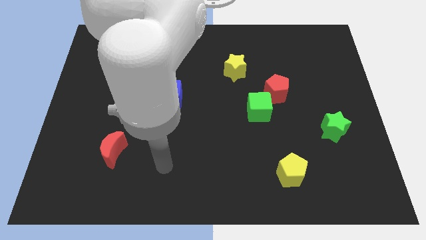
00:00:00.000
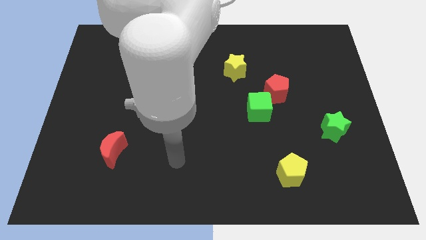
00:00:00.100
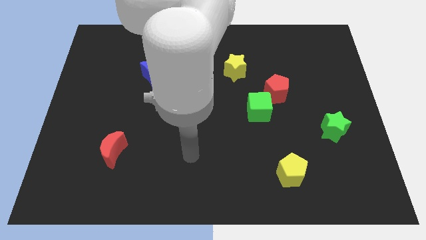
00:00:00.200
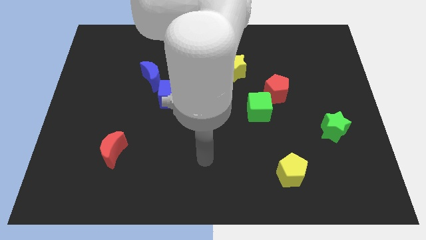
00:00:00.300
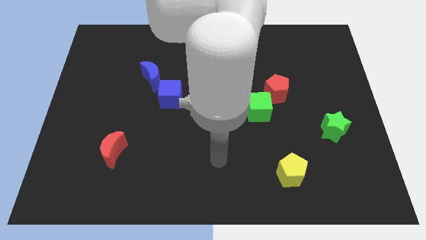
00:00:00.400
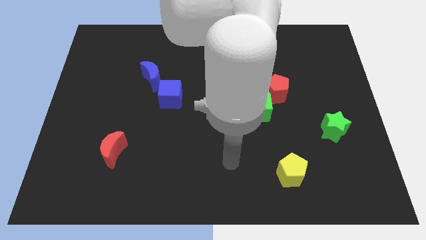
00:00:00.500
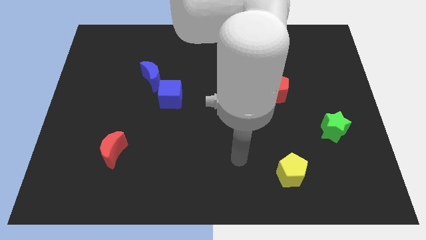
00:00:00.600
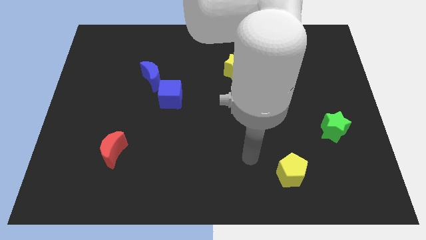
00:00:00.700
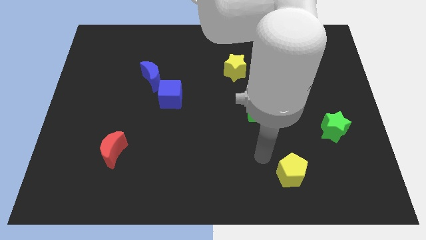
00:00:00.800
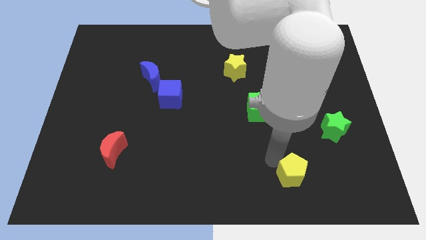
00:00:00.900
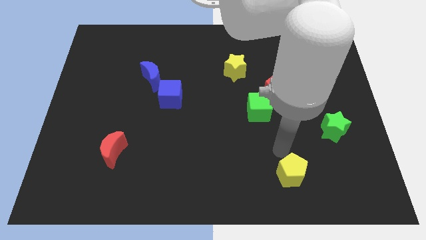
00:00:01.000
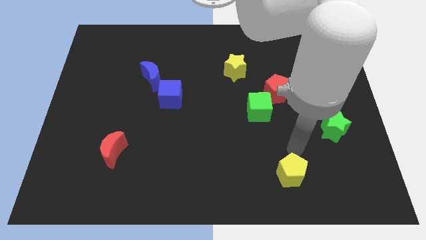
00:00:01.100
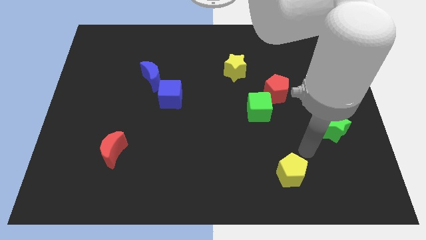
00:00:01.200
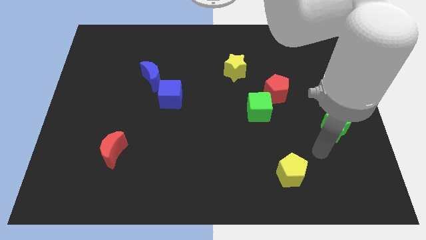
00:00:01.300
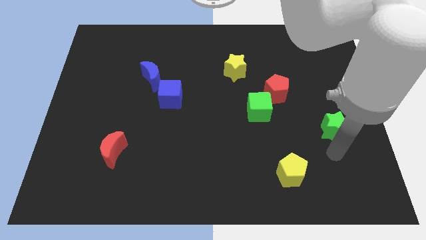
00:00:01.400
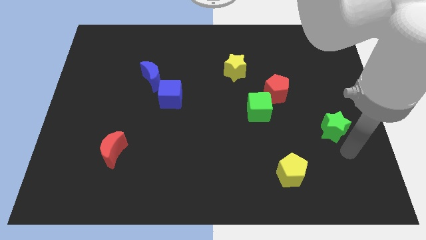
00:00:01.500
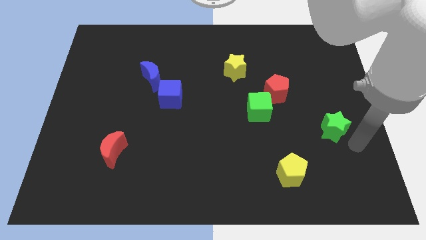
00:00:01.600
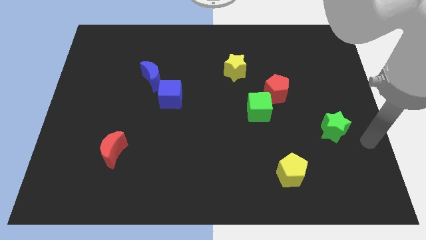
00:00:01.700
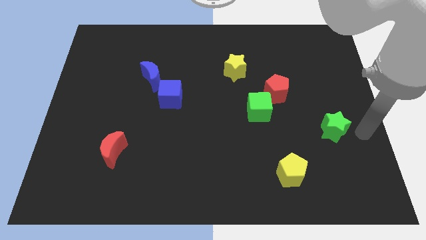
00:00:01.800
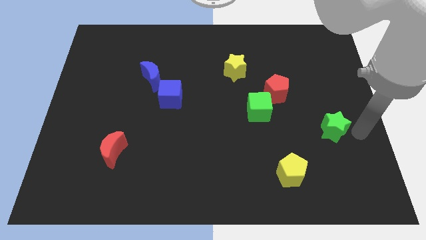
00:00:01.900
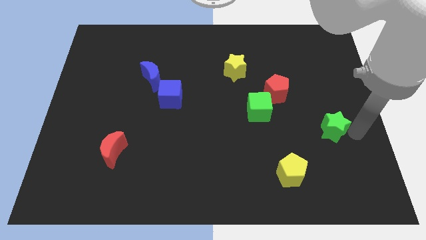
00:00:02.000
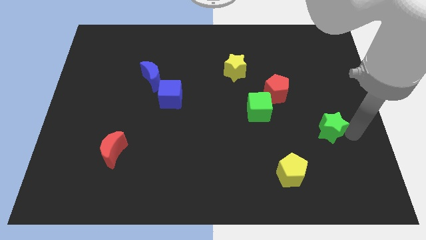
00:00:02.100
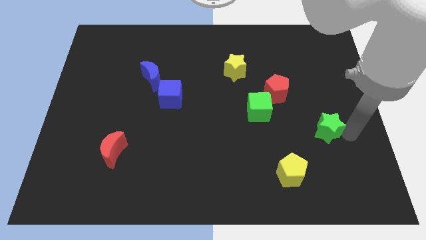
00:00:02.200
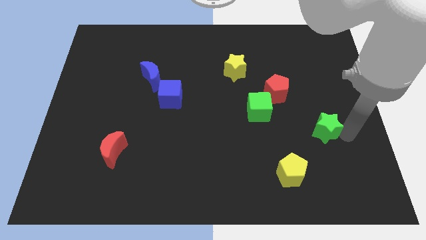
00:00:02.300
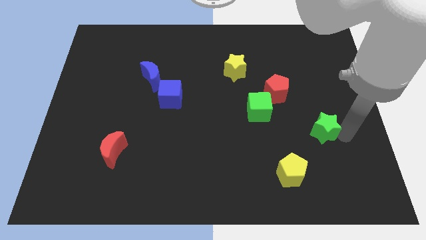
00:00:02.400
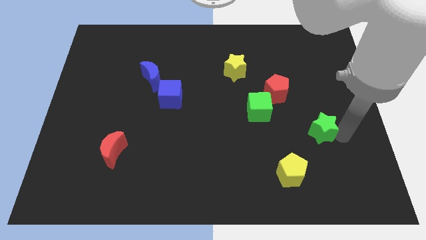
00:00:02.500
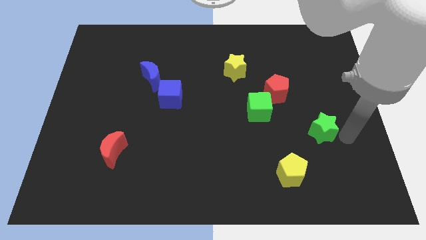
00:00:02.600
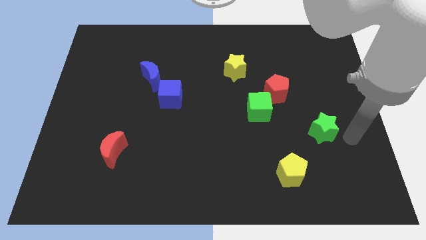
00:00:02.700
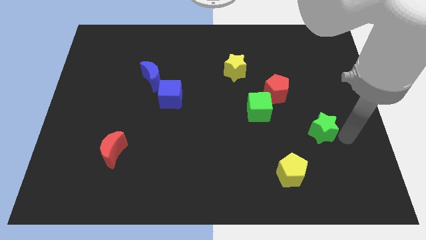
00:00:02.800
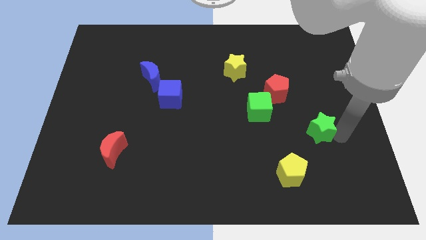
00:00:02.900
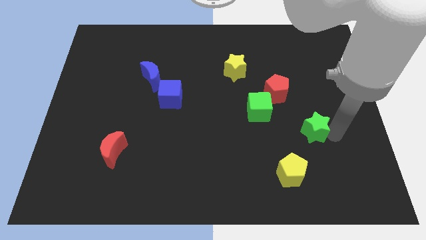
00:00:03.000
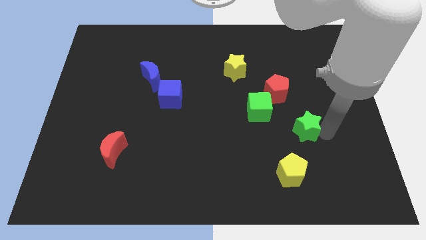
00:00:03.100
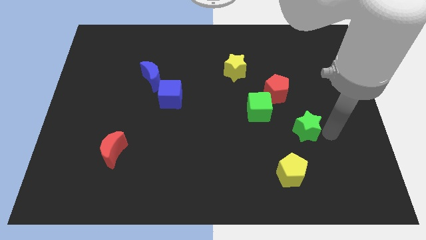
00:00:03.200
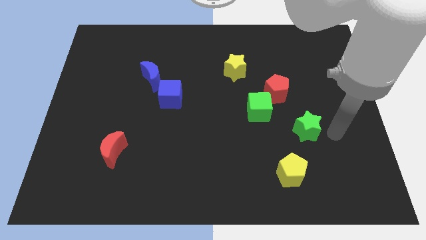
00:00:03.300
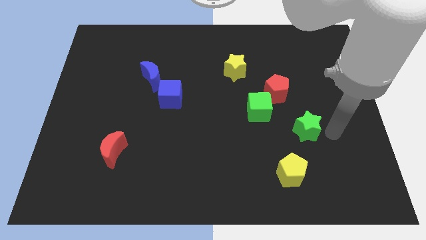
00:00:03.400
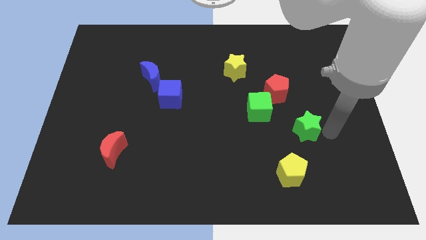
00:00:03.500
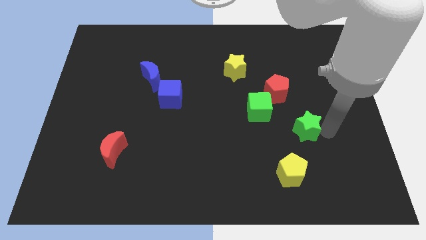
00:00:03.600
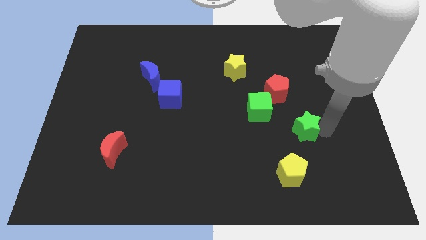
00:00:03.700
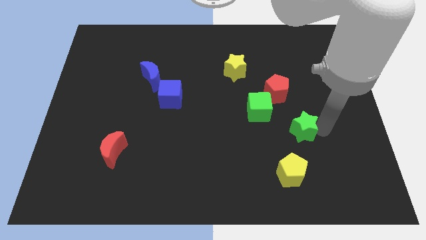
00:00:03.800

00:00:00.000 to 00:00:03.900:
push the green star left somewhat

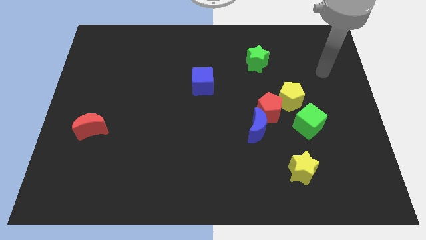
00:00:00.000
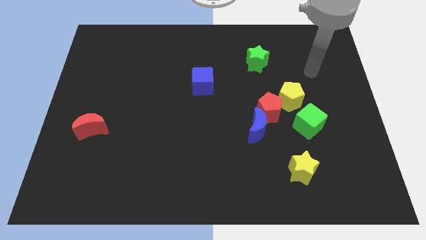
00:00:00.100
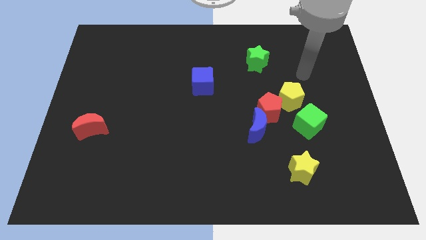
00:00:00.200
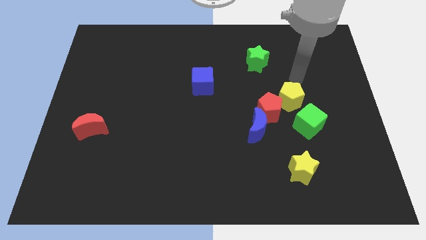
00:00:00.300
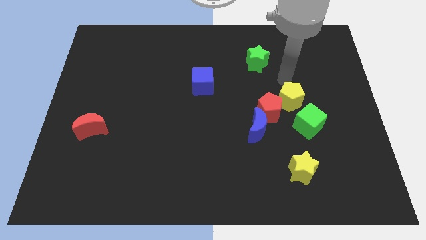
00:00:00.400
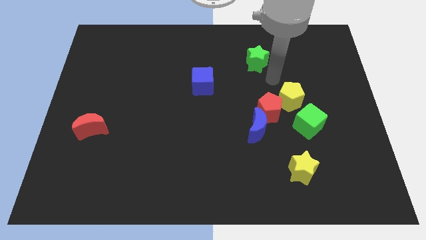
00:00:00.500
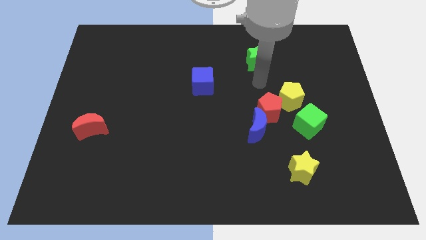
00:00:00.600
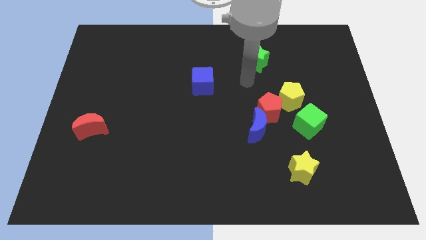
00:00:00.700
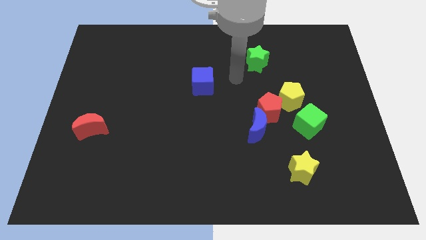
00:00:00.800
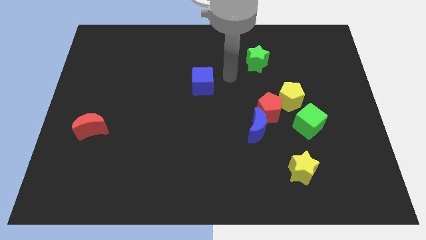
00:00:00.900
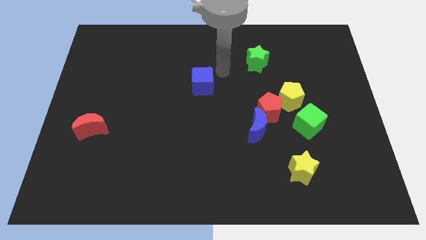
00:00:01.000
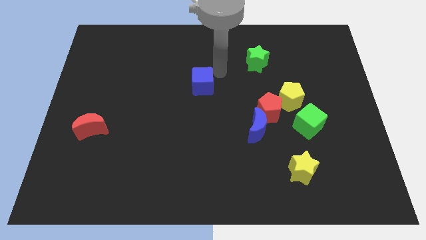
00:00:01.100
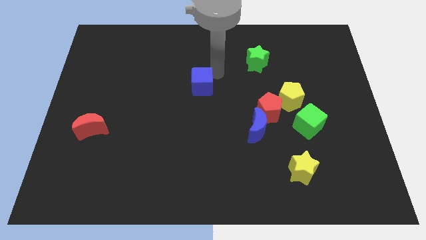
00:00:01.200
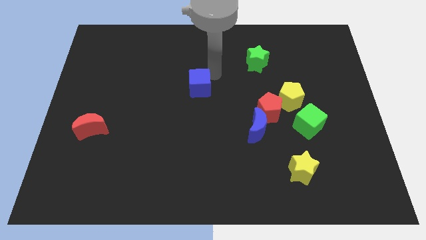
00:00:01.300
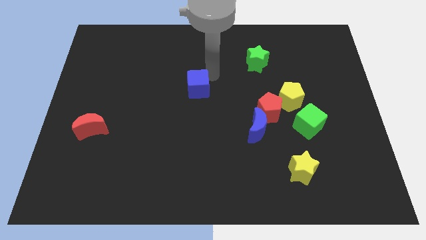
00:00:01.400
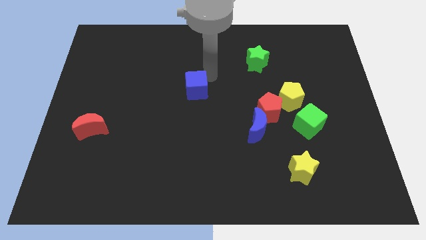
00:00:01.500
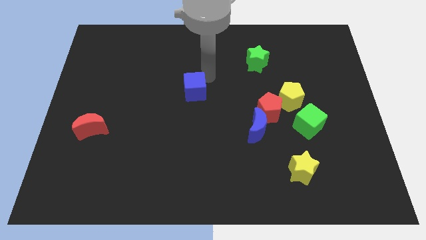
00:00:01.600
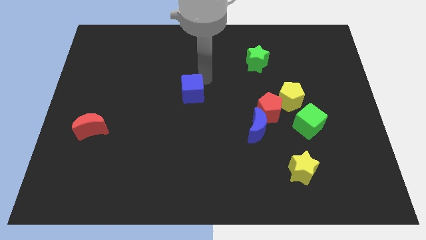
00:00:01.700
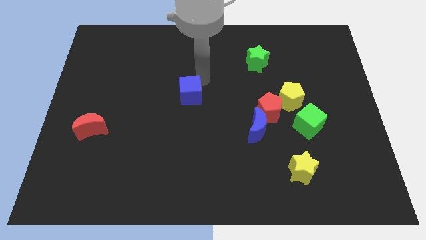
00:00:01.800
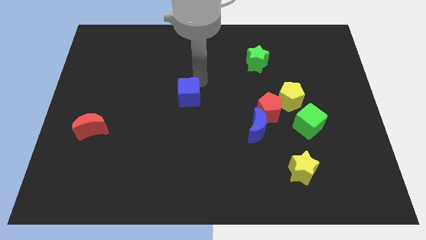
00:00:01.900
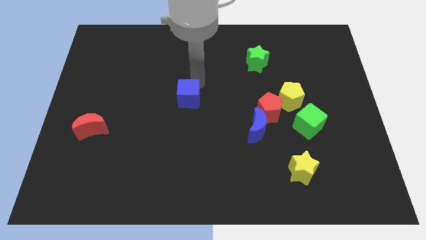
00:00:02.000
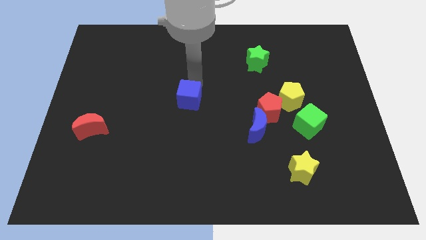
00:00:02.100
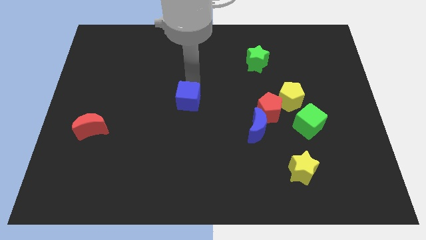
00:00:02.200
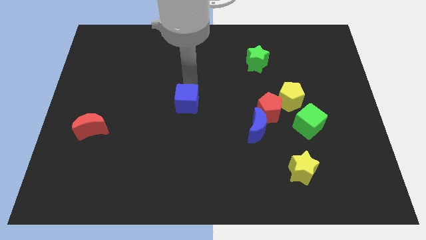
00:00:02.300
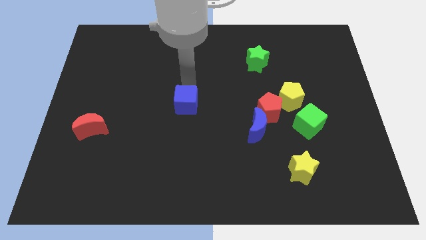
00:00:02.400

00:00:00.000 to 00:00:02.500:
push the blue cube slightly downwards and then left

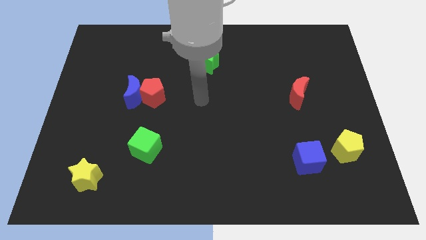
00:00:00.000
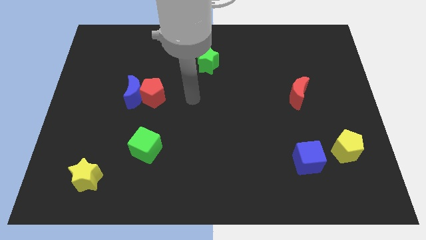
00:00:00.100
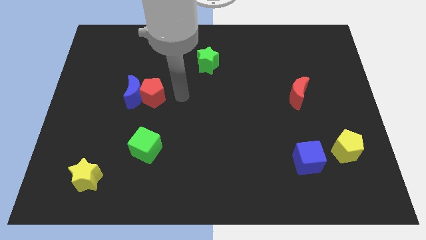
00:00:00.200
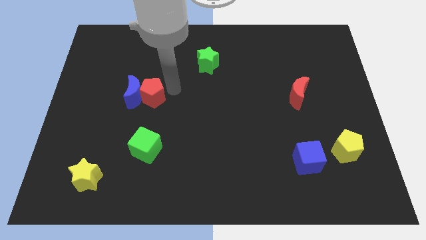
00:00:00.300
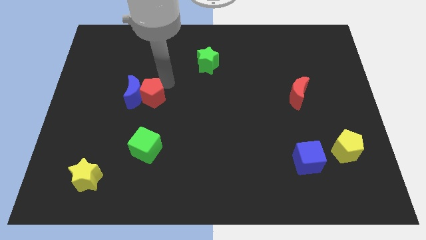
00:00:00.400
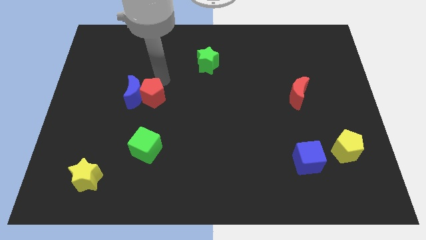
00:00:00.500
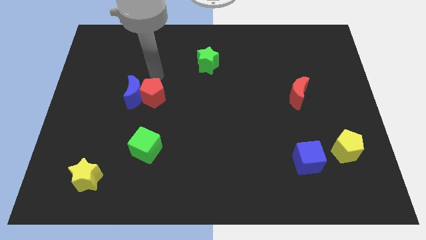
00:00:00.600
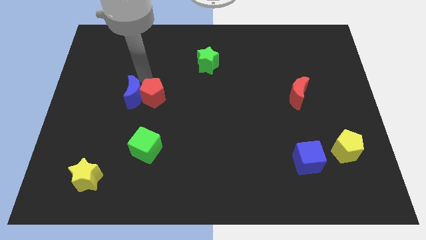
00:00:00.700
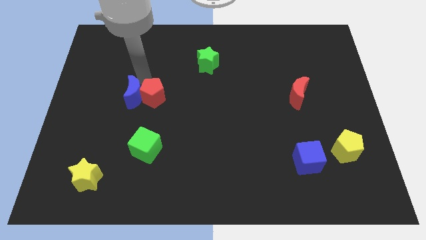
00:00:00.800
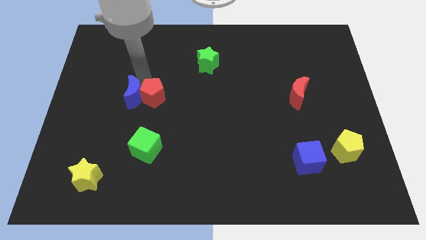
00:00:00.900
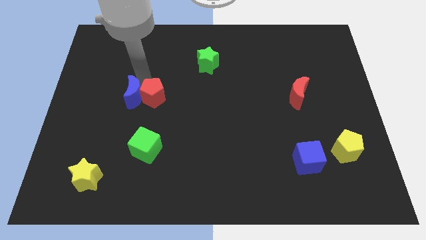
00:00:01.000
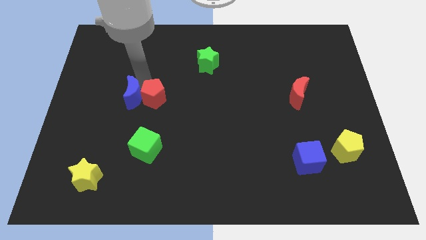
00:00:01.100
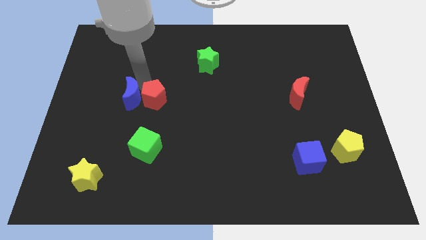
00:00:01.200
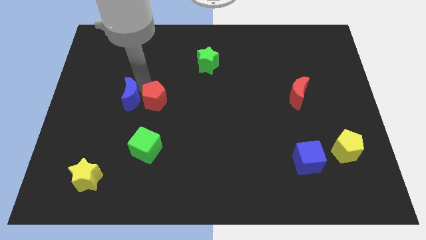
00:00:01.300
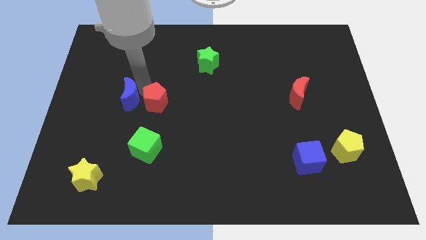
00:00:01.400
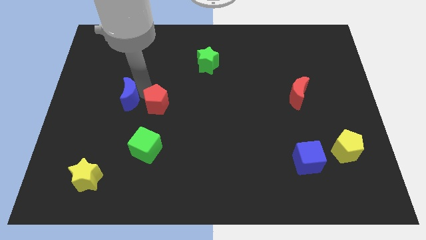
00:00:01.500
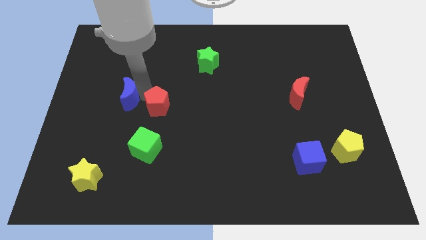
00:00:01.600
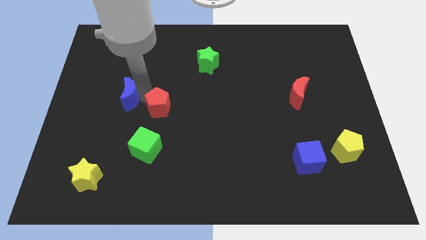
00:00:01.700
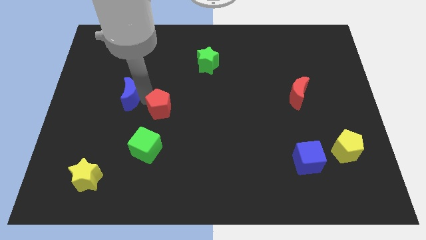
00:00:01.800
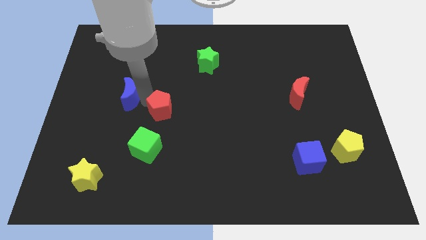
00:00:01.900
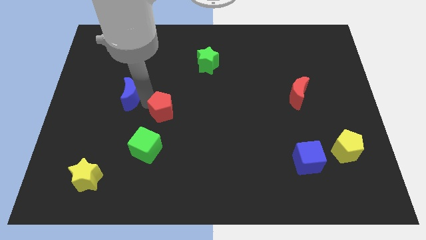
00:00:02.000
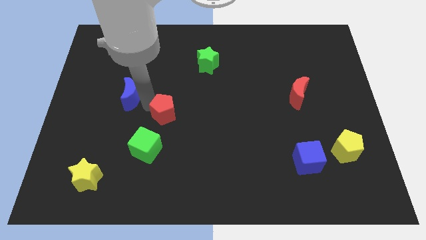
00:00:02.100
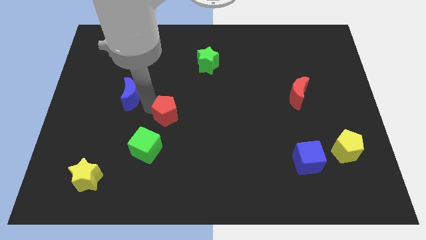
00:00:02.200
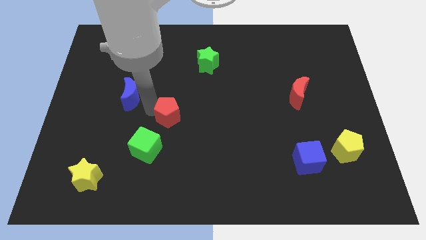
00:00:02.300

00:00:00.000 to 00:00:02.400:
push the red pentagon a little down and then to the right
